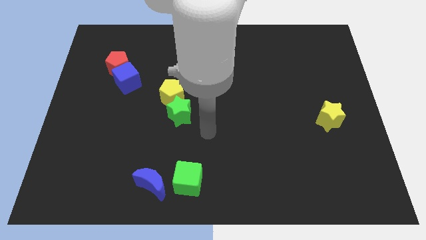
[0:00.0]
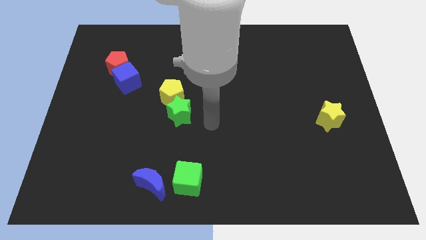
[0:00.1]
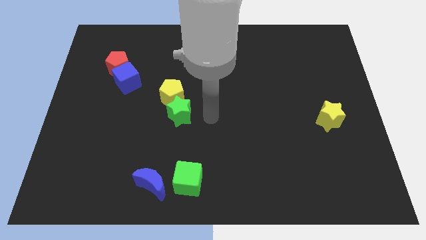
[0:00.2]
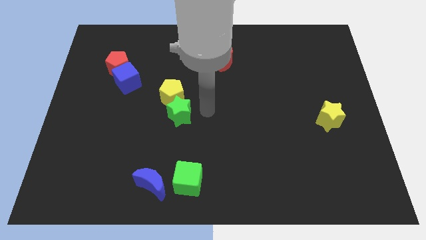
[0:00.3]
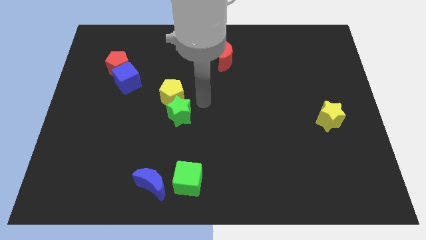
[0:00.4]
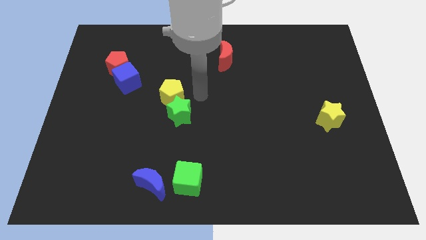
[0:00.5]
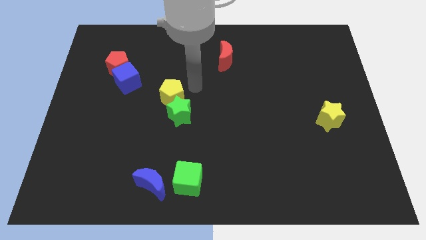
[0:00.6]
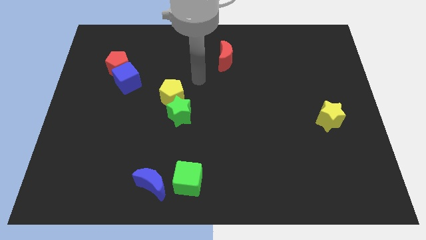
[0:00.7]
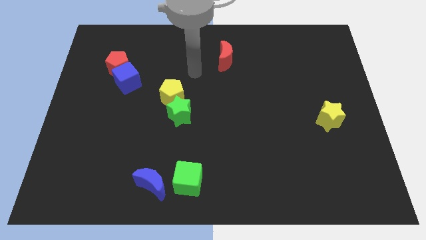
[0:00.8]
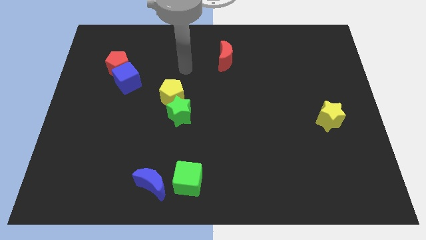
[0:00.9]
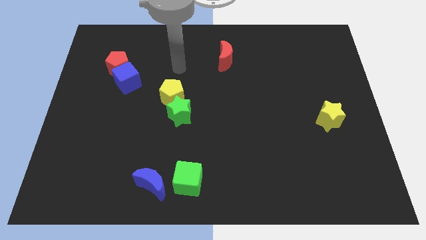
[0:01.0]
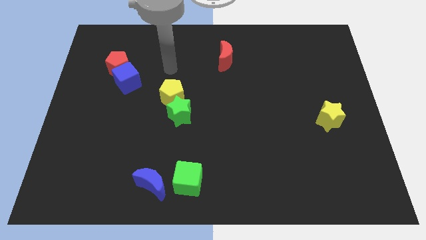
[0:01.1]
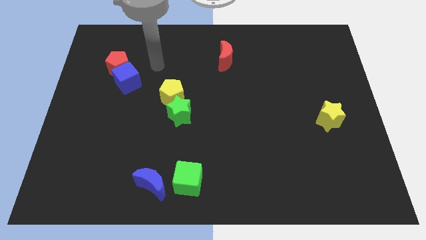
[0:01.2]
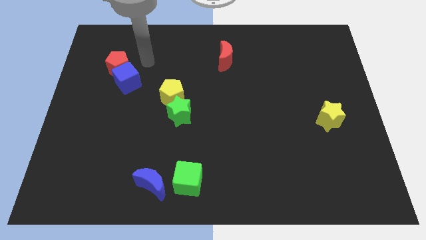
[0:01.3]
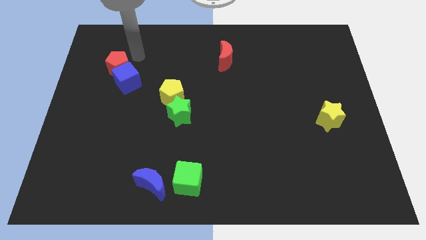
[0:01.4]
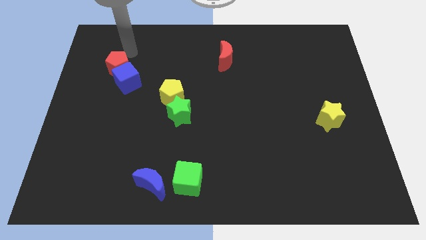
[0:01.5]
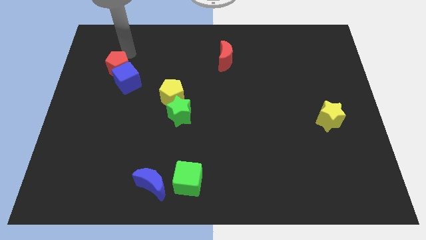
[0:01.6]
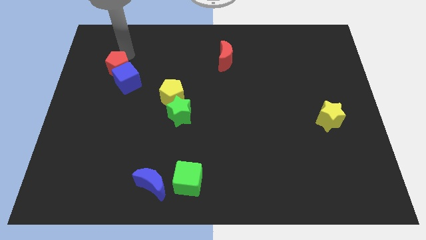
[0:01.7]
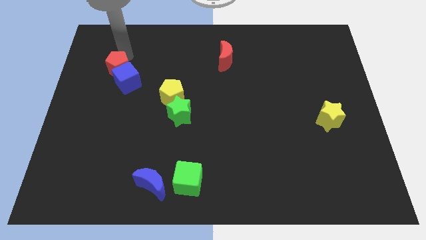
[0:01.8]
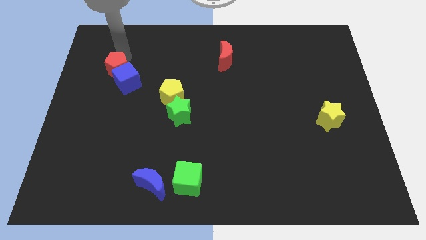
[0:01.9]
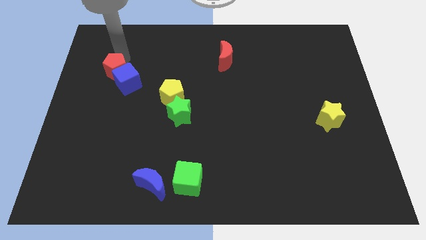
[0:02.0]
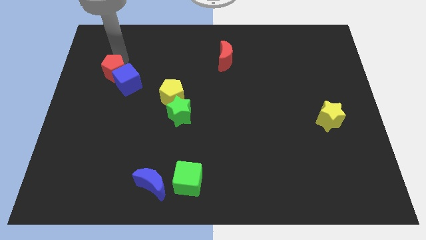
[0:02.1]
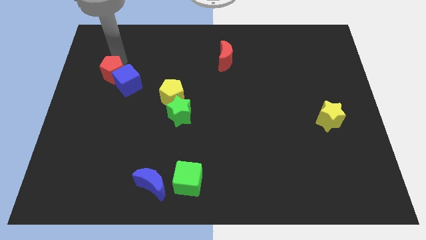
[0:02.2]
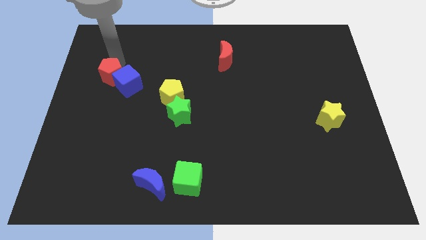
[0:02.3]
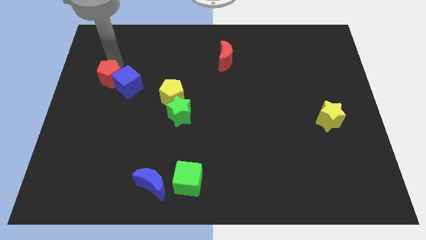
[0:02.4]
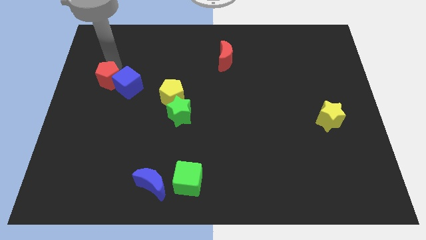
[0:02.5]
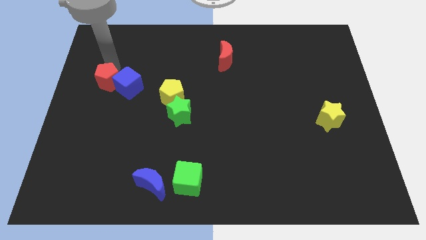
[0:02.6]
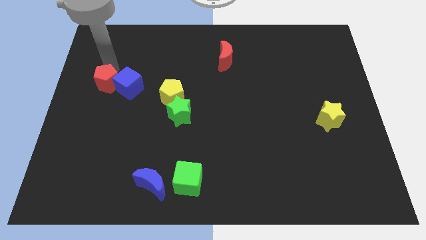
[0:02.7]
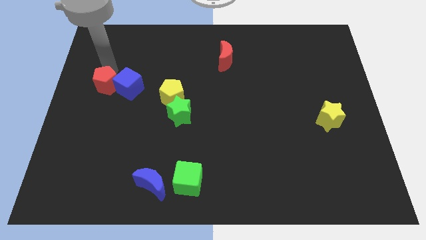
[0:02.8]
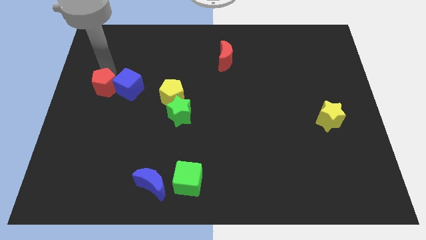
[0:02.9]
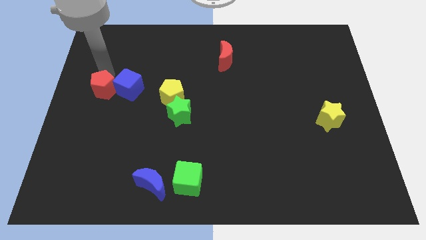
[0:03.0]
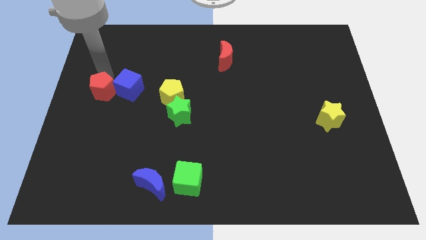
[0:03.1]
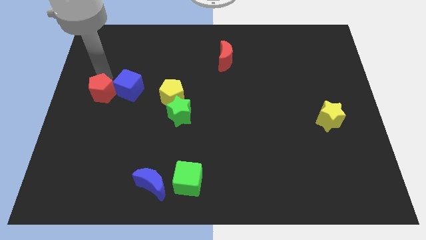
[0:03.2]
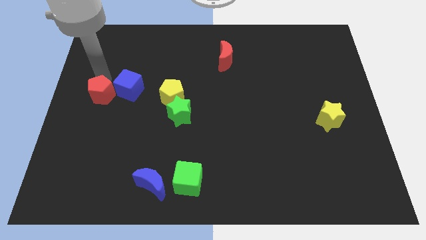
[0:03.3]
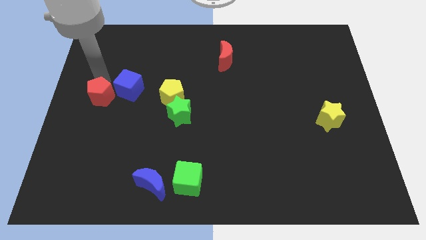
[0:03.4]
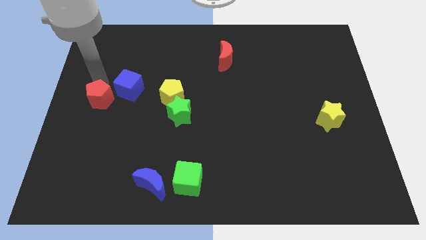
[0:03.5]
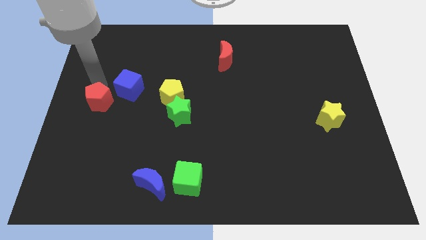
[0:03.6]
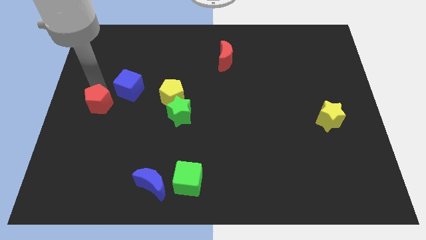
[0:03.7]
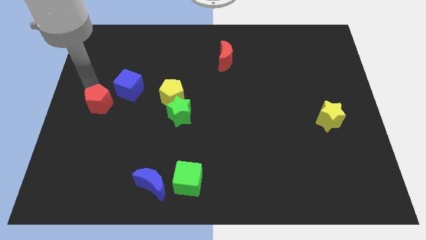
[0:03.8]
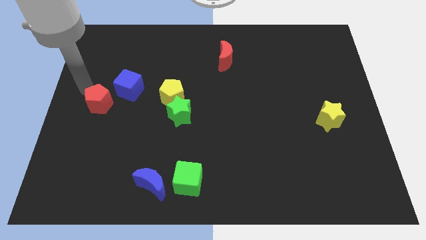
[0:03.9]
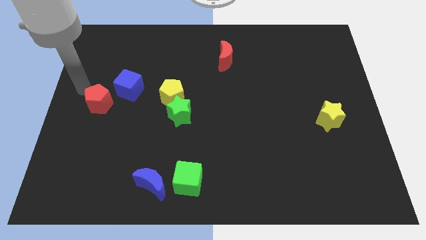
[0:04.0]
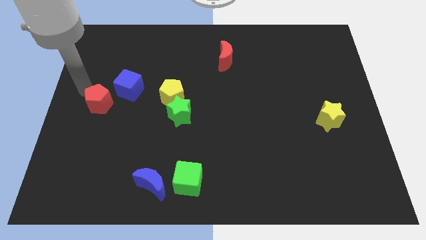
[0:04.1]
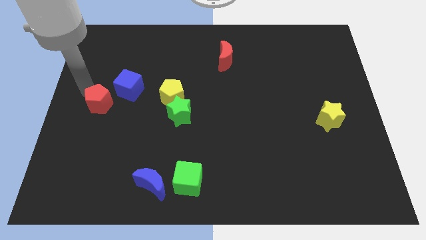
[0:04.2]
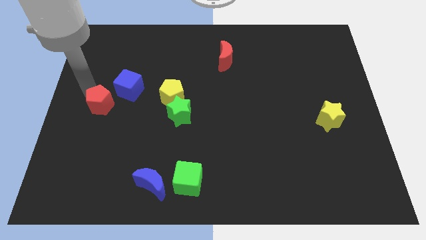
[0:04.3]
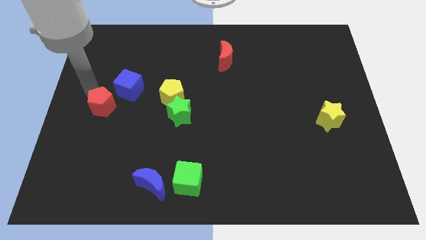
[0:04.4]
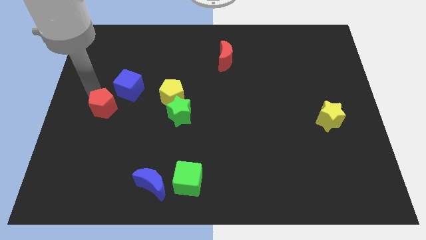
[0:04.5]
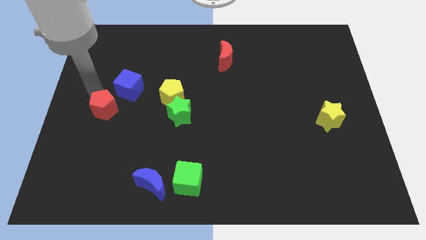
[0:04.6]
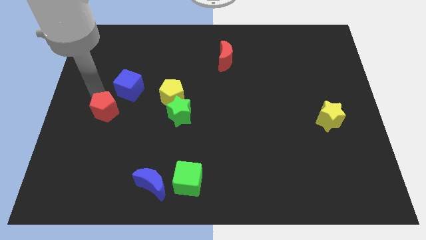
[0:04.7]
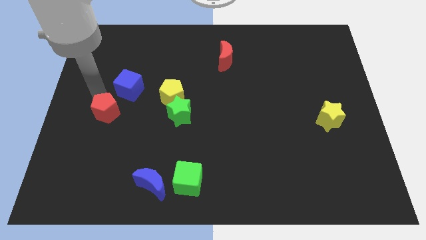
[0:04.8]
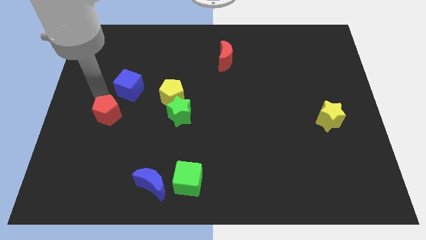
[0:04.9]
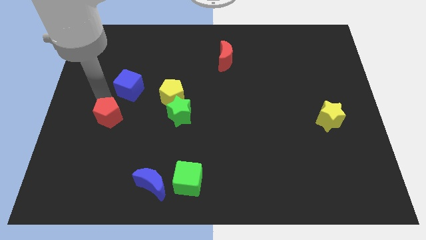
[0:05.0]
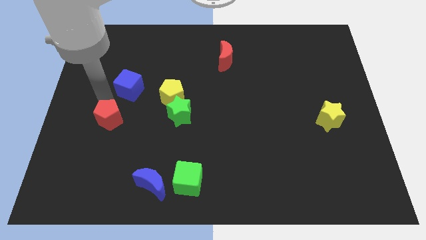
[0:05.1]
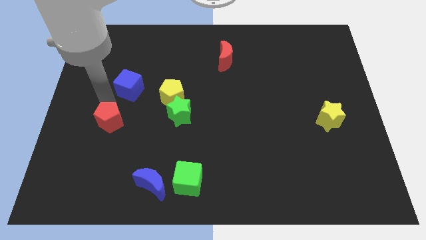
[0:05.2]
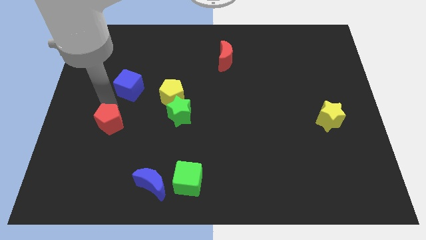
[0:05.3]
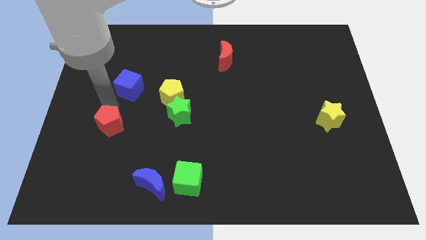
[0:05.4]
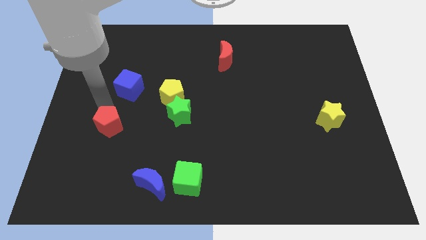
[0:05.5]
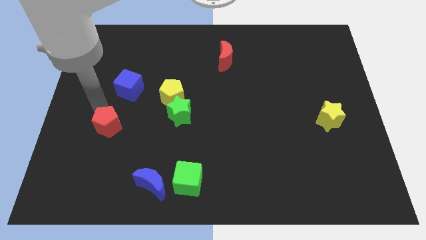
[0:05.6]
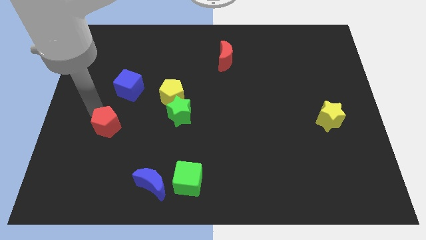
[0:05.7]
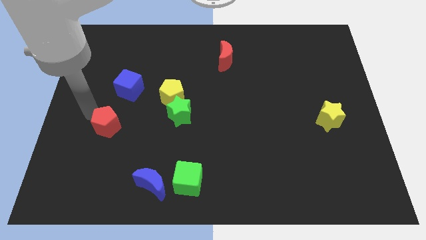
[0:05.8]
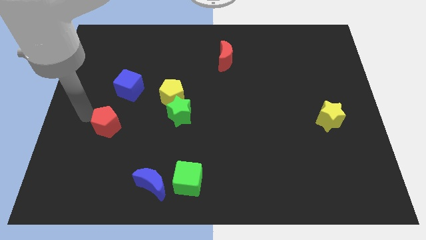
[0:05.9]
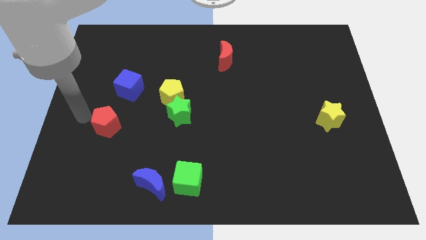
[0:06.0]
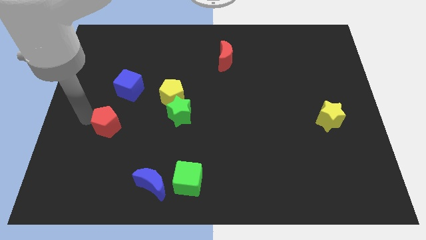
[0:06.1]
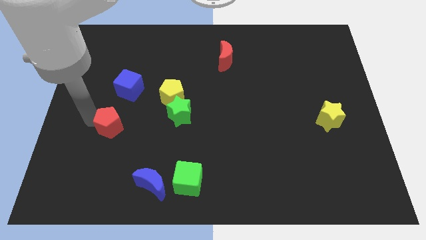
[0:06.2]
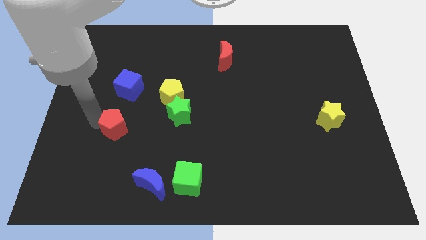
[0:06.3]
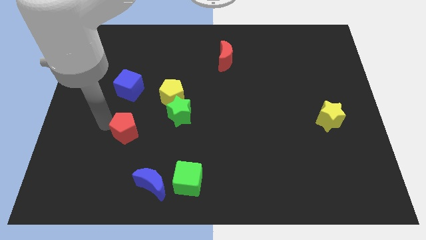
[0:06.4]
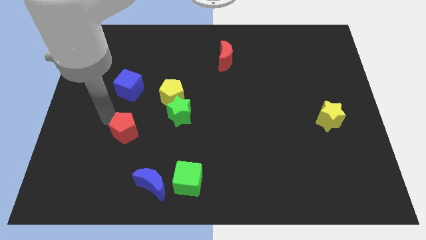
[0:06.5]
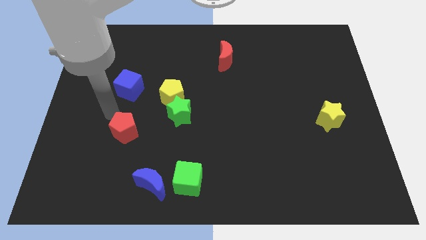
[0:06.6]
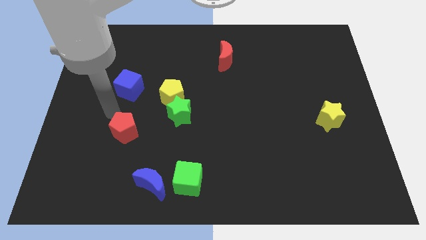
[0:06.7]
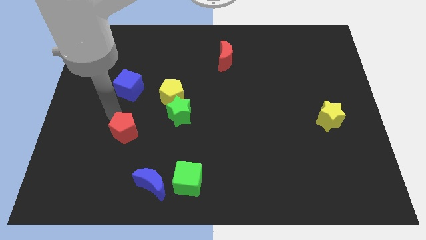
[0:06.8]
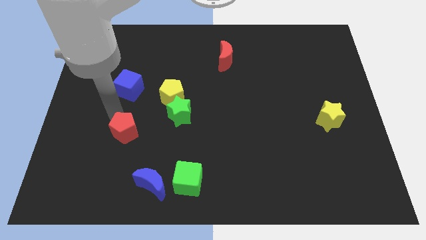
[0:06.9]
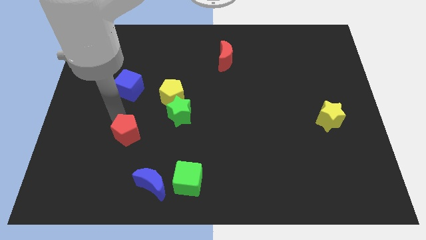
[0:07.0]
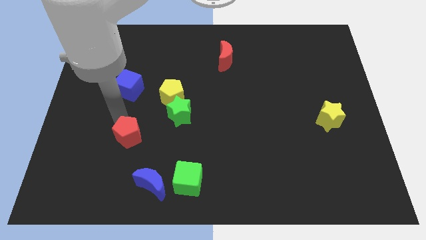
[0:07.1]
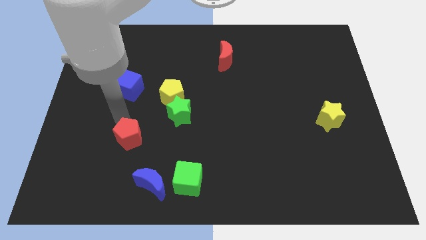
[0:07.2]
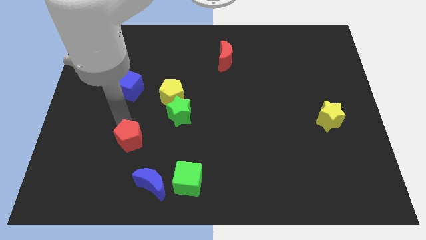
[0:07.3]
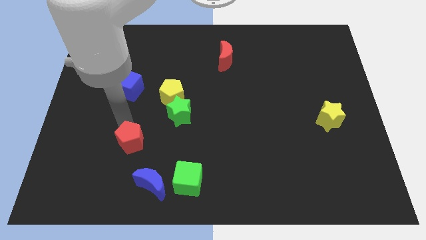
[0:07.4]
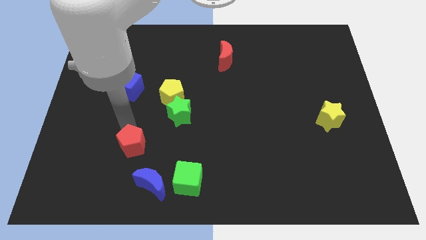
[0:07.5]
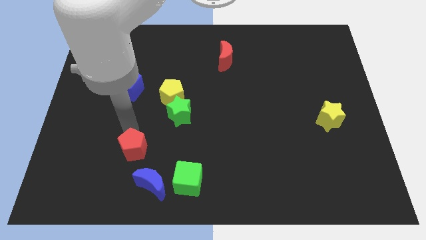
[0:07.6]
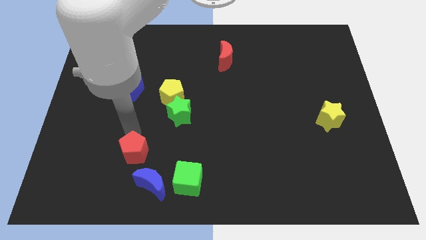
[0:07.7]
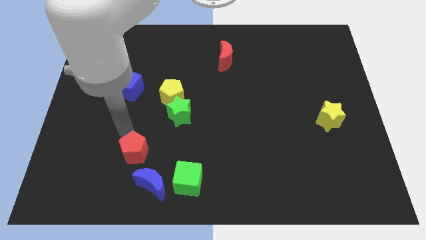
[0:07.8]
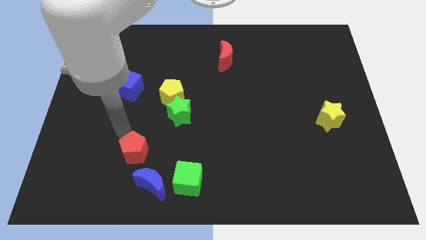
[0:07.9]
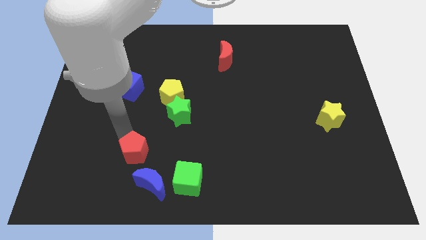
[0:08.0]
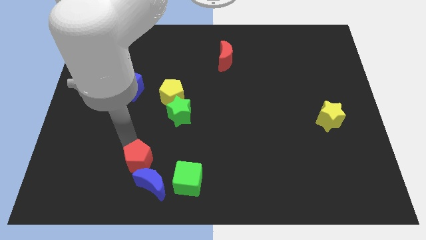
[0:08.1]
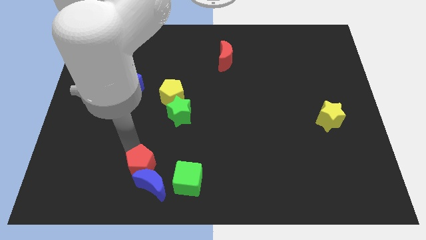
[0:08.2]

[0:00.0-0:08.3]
push the red pentagon close to the blue moon
